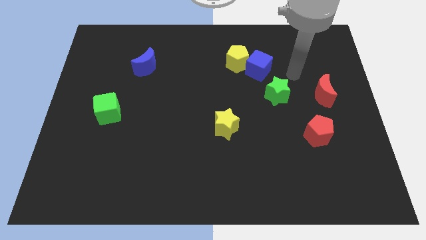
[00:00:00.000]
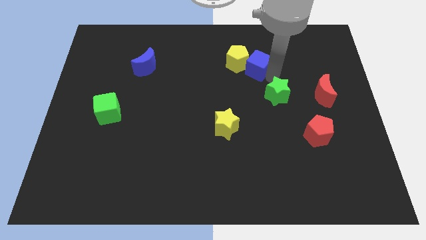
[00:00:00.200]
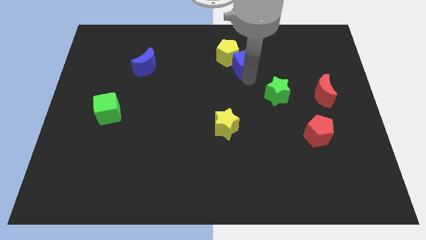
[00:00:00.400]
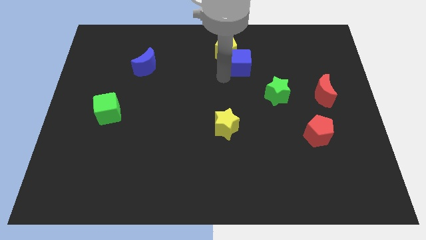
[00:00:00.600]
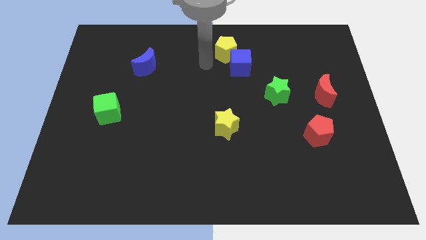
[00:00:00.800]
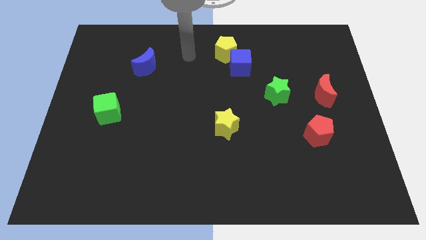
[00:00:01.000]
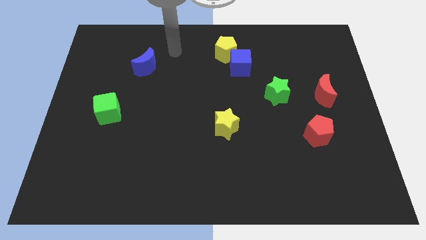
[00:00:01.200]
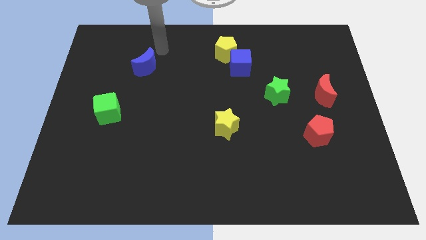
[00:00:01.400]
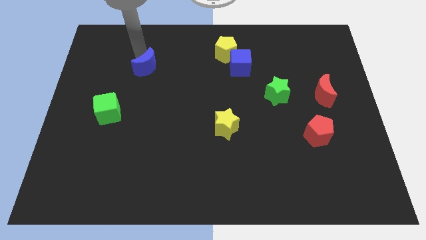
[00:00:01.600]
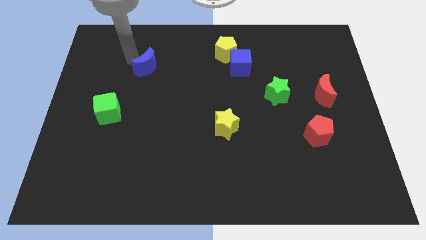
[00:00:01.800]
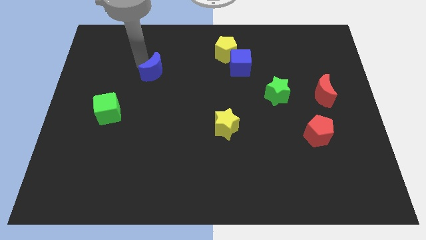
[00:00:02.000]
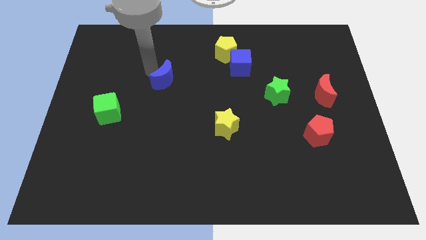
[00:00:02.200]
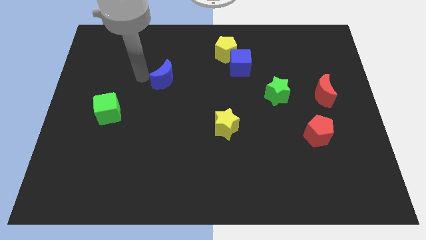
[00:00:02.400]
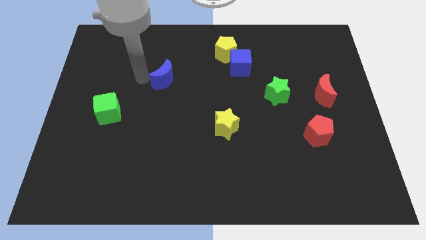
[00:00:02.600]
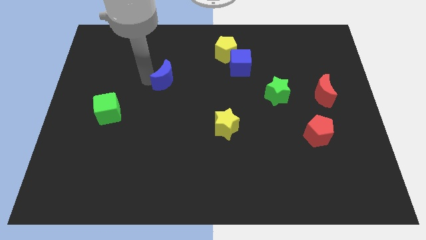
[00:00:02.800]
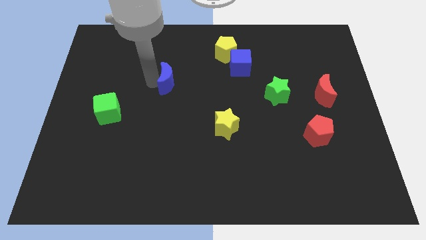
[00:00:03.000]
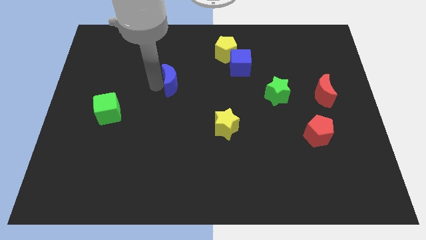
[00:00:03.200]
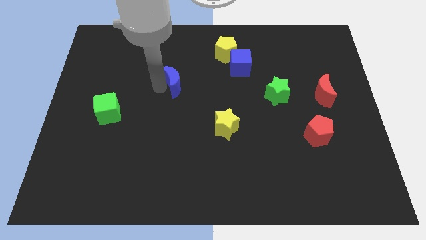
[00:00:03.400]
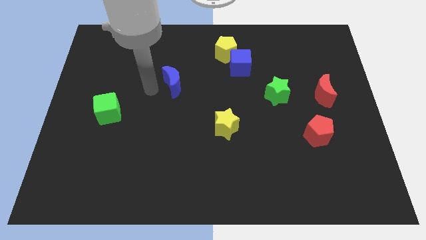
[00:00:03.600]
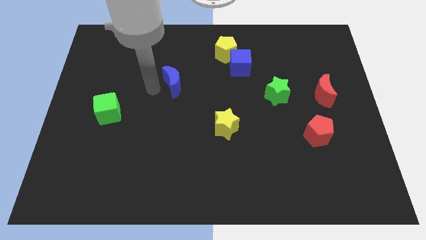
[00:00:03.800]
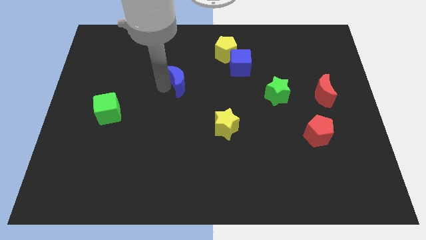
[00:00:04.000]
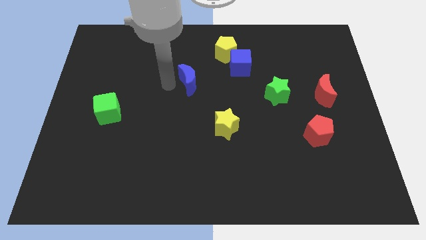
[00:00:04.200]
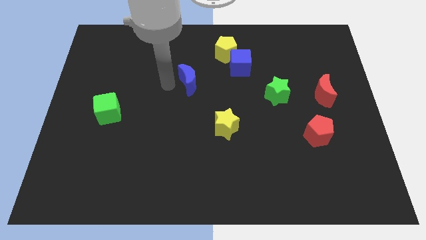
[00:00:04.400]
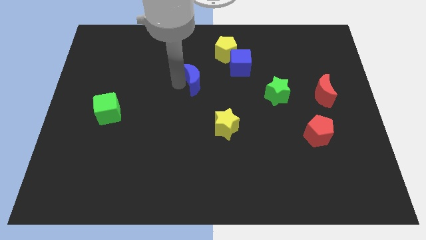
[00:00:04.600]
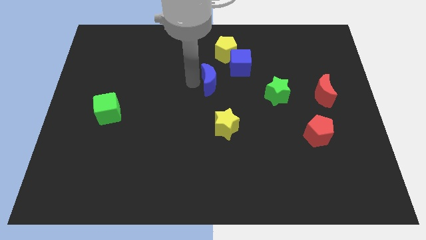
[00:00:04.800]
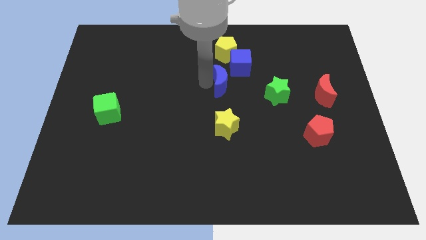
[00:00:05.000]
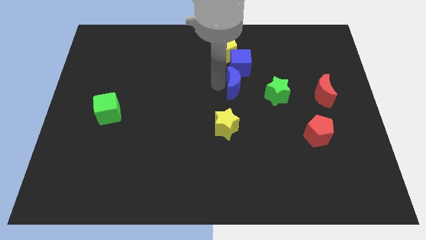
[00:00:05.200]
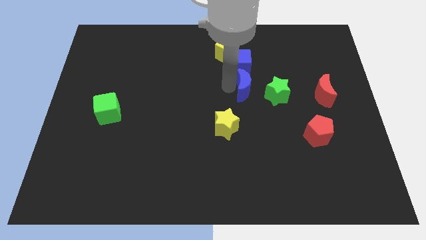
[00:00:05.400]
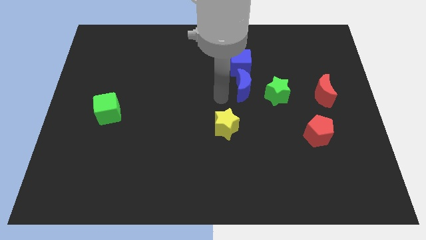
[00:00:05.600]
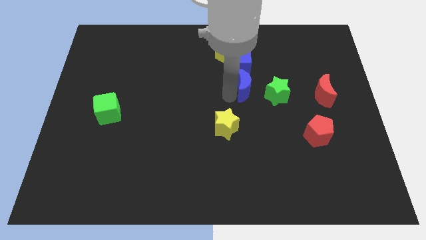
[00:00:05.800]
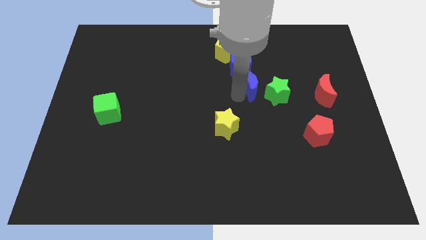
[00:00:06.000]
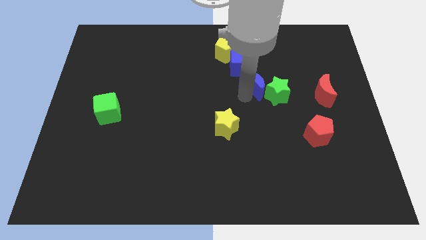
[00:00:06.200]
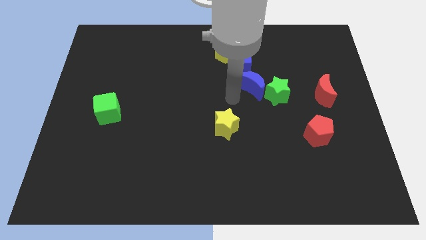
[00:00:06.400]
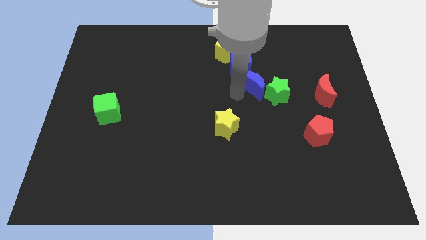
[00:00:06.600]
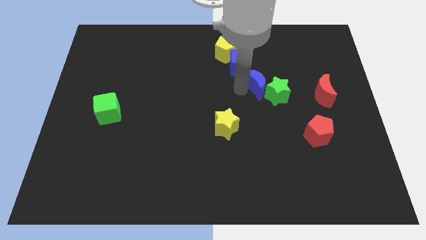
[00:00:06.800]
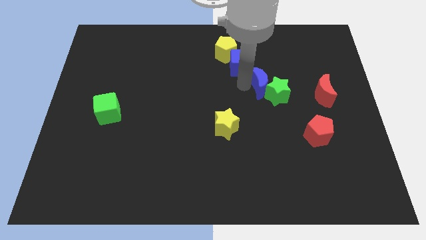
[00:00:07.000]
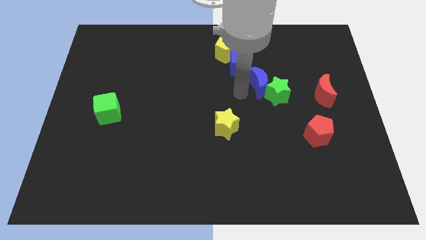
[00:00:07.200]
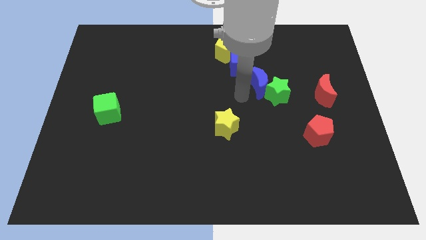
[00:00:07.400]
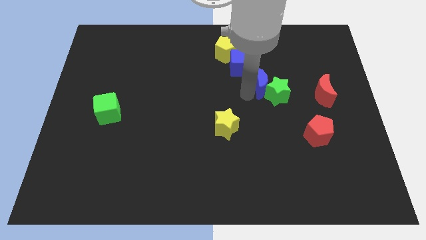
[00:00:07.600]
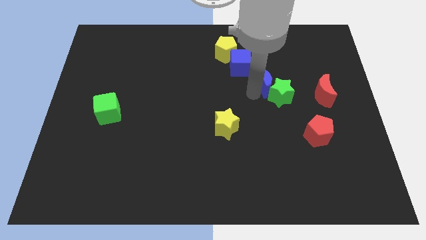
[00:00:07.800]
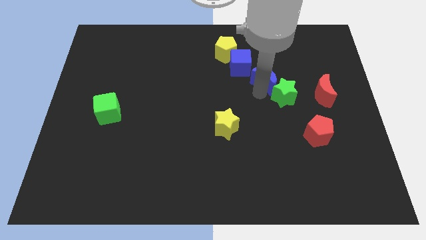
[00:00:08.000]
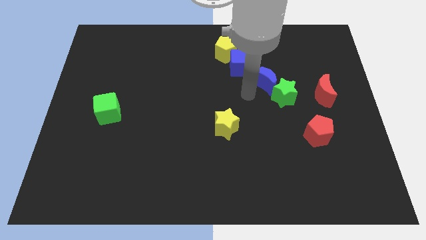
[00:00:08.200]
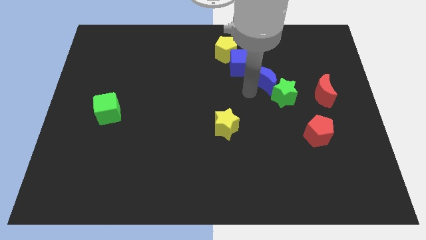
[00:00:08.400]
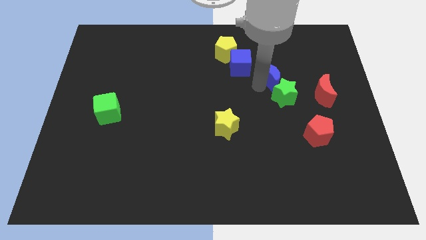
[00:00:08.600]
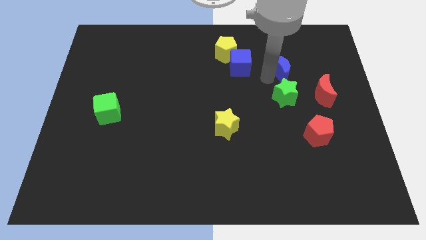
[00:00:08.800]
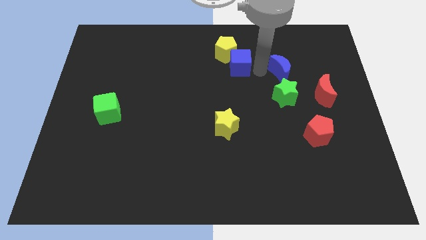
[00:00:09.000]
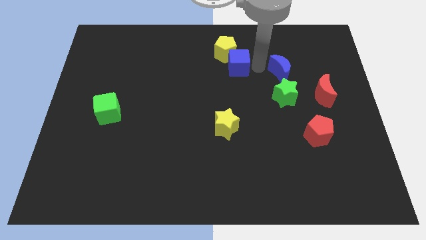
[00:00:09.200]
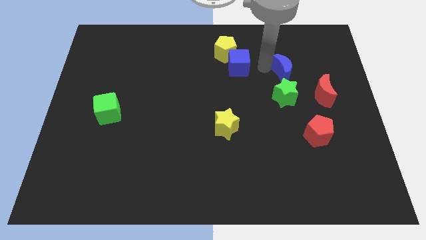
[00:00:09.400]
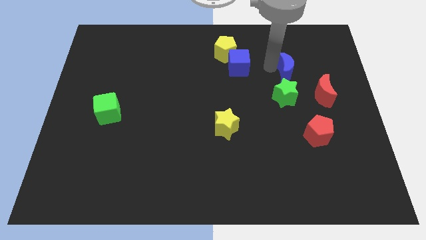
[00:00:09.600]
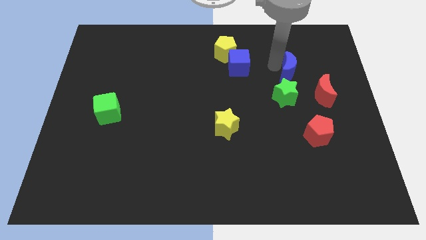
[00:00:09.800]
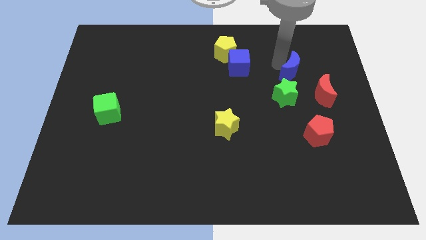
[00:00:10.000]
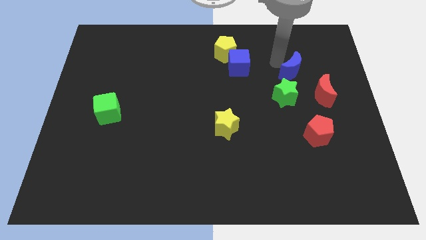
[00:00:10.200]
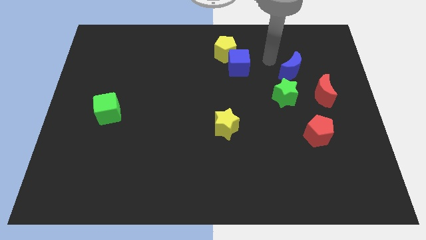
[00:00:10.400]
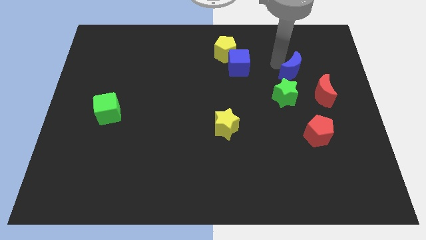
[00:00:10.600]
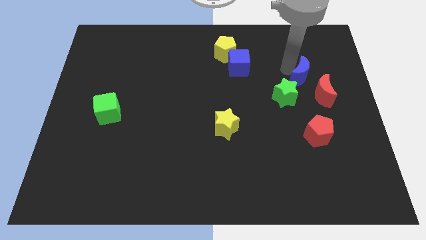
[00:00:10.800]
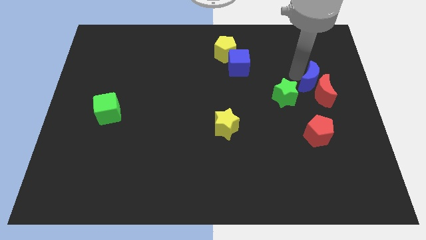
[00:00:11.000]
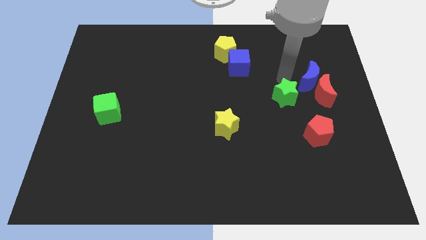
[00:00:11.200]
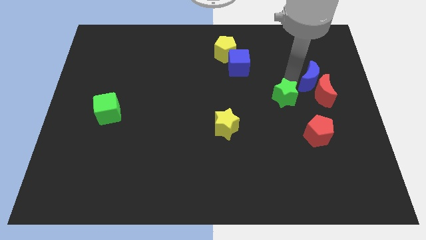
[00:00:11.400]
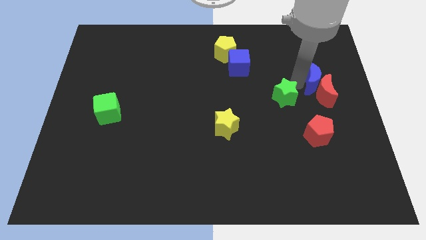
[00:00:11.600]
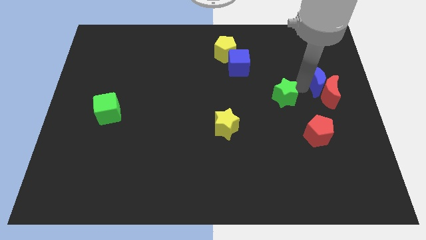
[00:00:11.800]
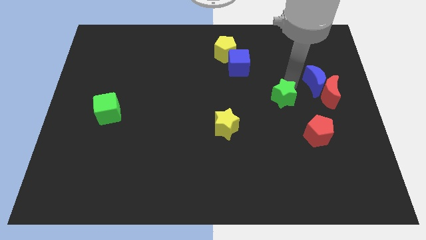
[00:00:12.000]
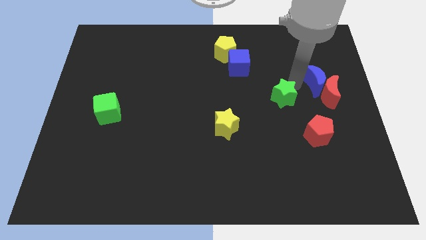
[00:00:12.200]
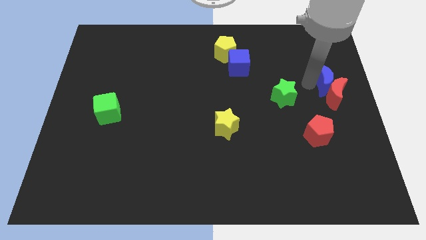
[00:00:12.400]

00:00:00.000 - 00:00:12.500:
slide the blue moon to the right side of the board
